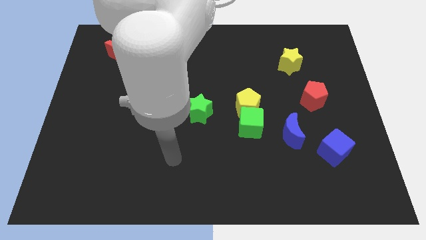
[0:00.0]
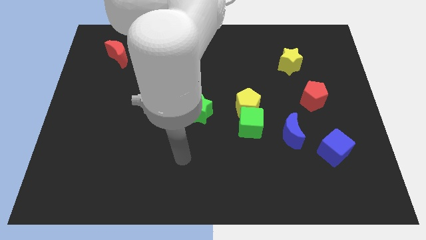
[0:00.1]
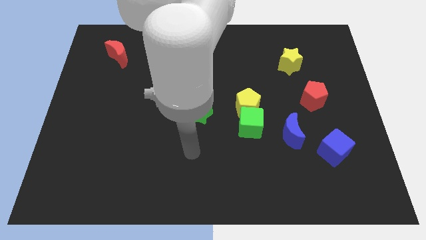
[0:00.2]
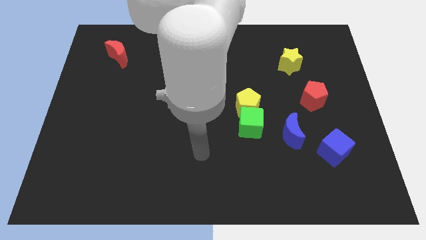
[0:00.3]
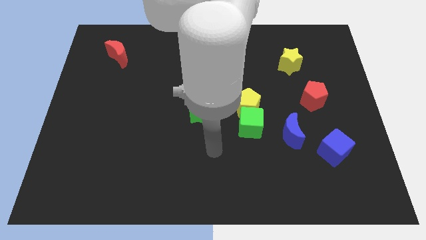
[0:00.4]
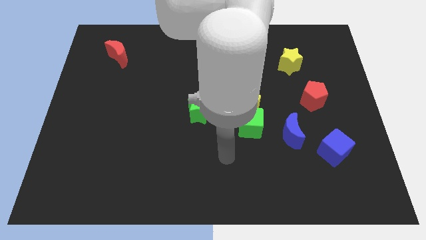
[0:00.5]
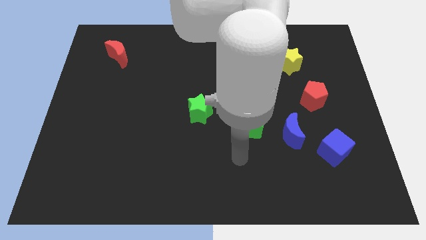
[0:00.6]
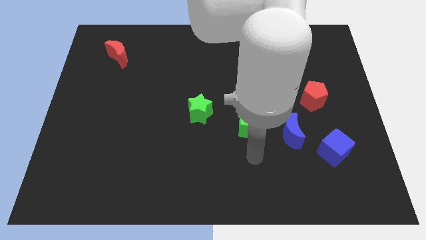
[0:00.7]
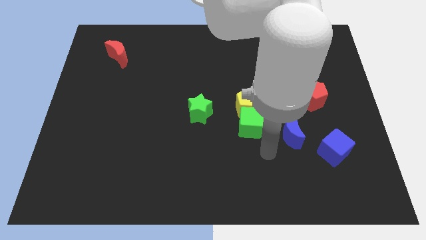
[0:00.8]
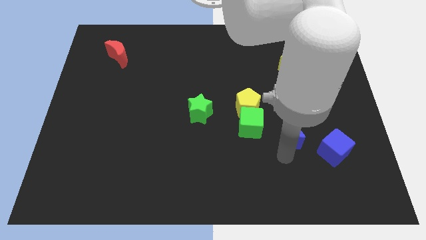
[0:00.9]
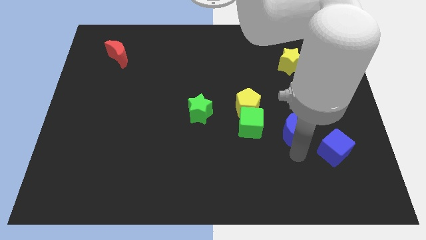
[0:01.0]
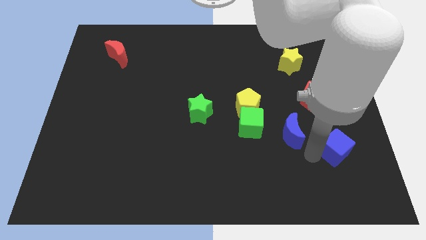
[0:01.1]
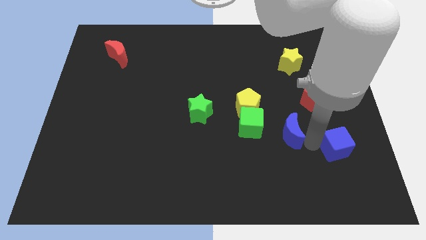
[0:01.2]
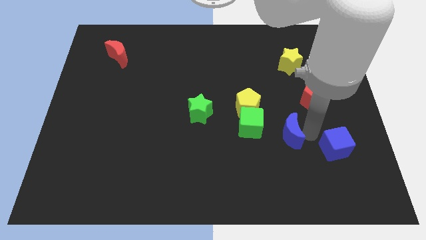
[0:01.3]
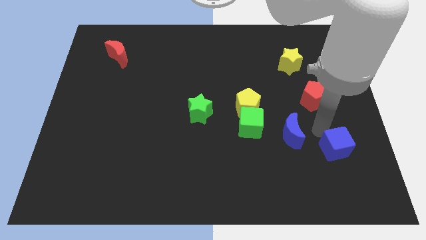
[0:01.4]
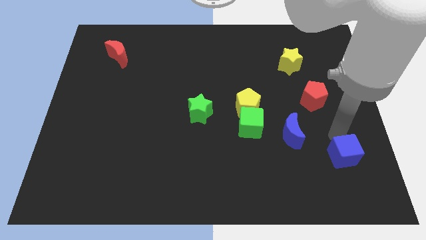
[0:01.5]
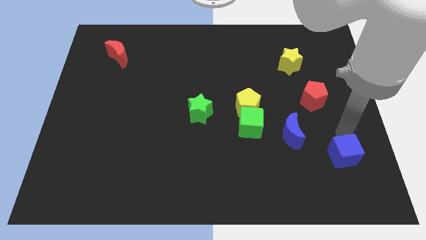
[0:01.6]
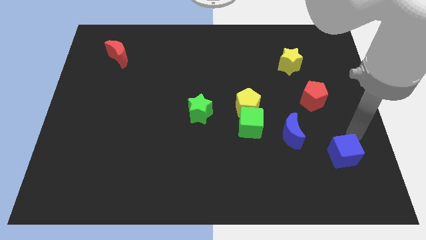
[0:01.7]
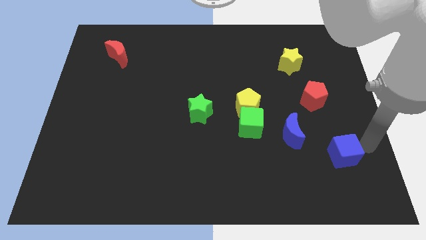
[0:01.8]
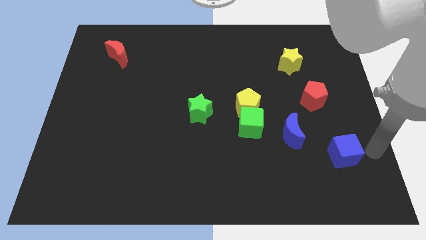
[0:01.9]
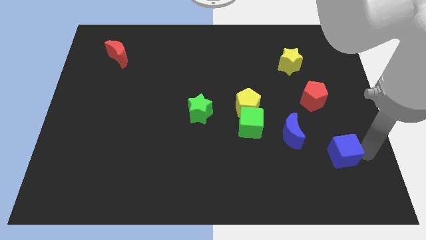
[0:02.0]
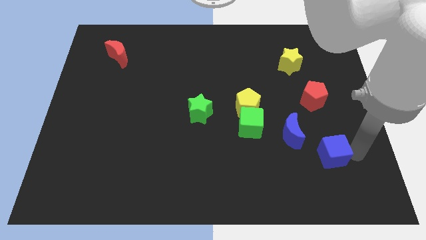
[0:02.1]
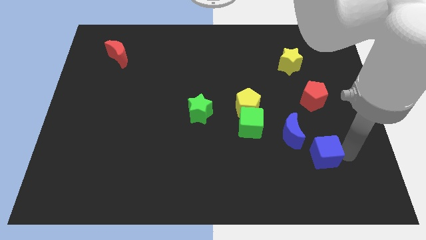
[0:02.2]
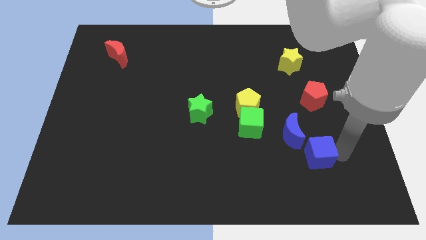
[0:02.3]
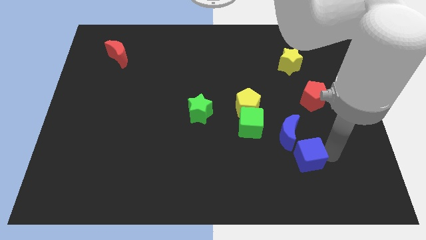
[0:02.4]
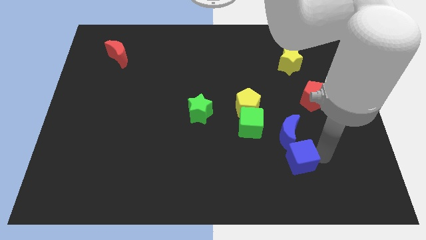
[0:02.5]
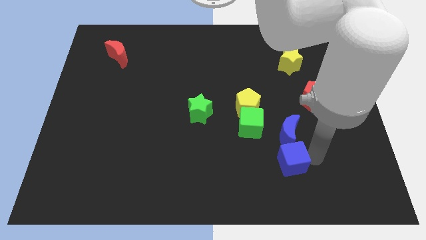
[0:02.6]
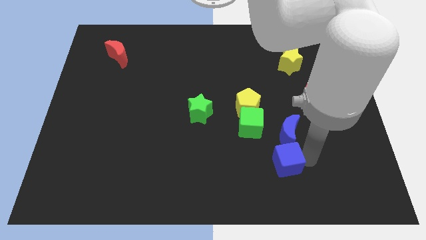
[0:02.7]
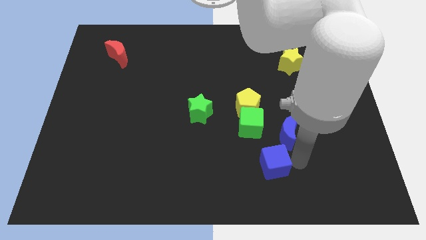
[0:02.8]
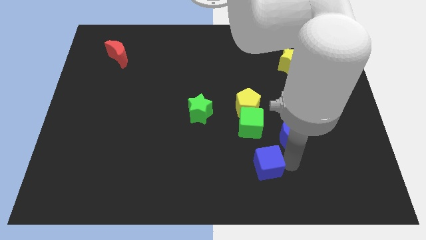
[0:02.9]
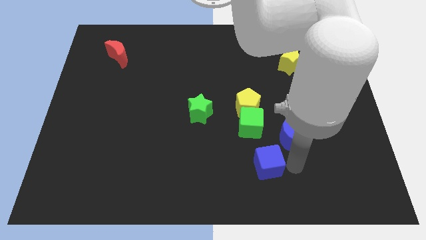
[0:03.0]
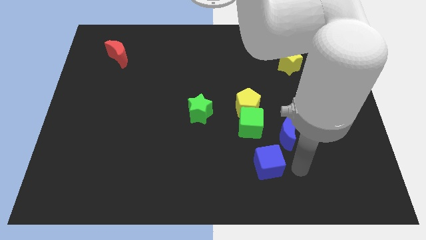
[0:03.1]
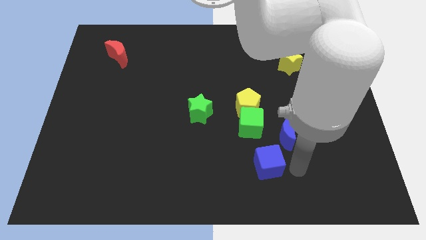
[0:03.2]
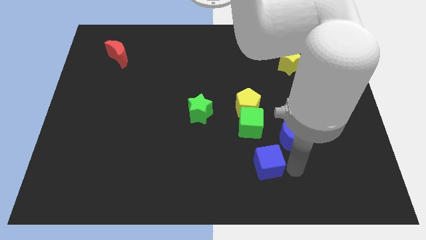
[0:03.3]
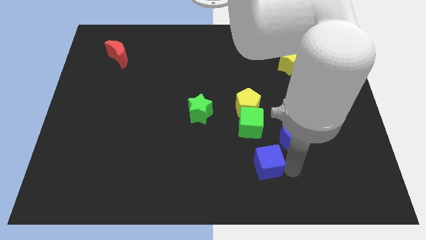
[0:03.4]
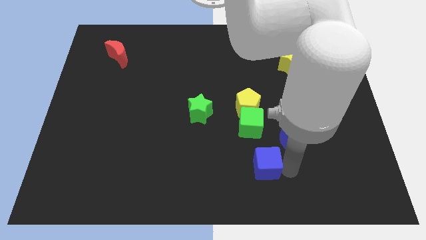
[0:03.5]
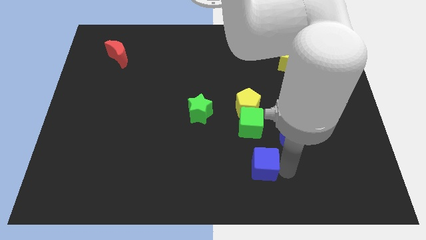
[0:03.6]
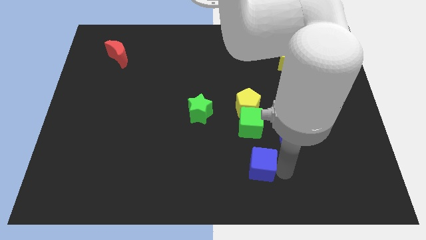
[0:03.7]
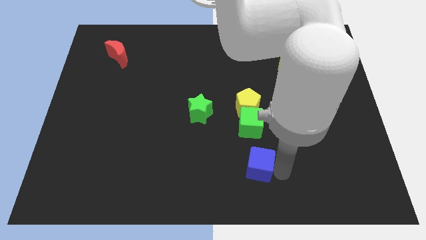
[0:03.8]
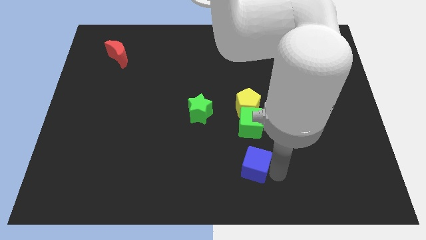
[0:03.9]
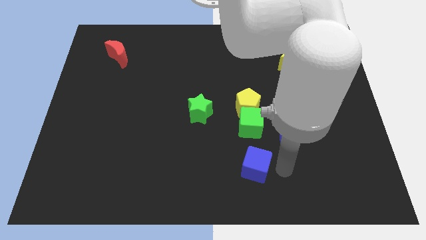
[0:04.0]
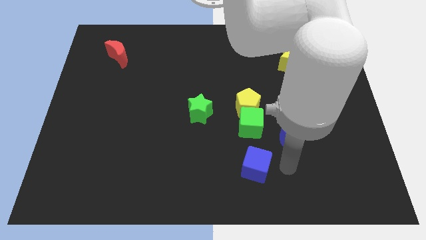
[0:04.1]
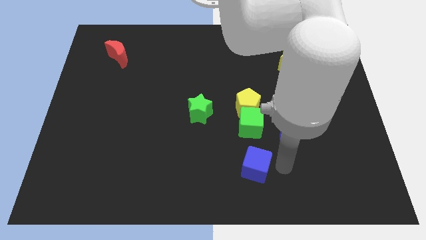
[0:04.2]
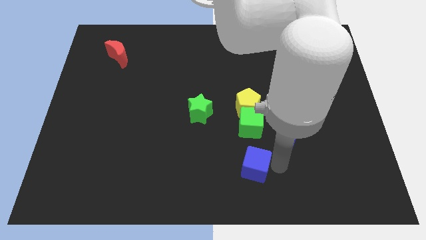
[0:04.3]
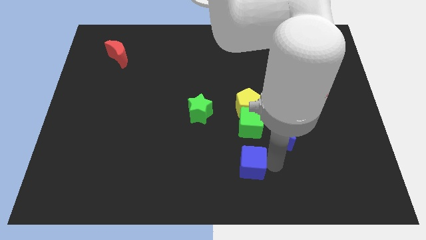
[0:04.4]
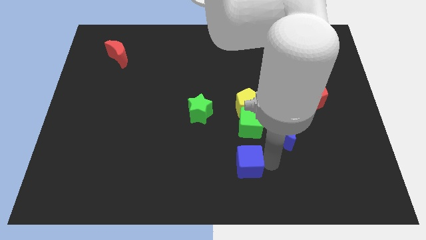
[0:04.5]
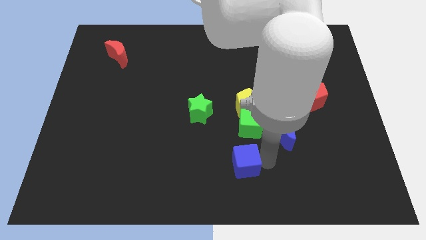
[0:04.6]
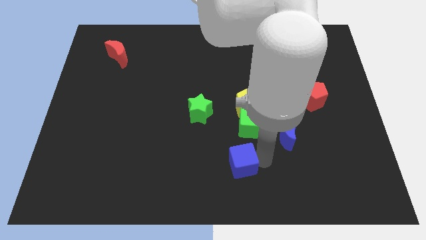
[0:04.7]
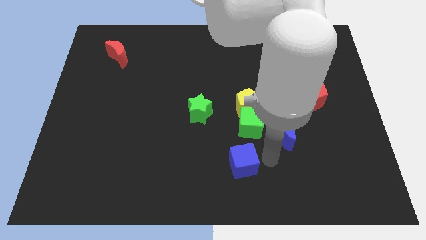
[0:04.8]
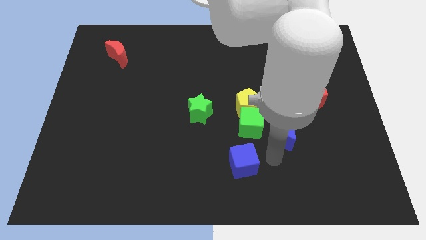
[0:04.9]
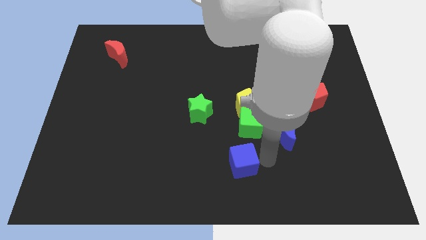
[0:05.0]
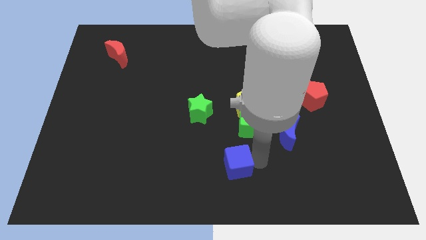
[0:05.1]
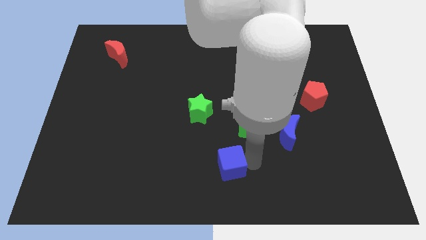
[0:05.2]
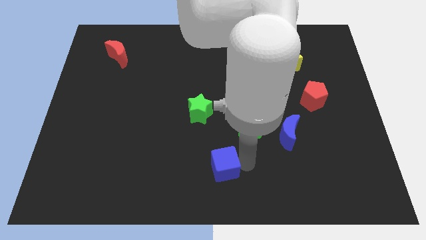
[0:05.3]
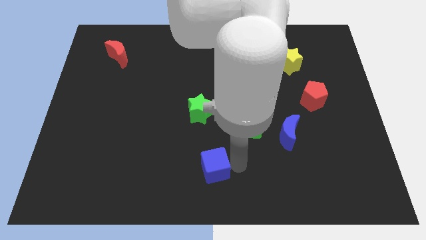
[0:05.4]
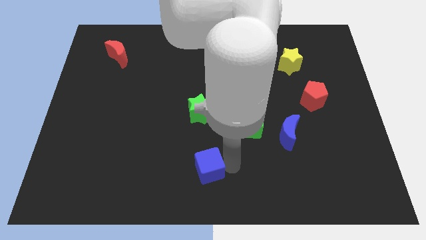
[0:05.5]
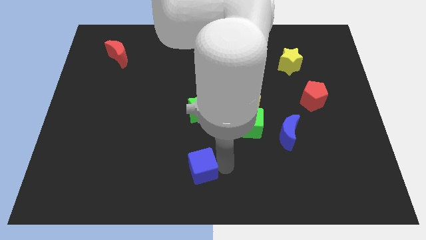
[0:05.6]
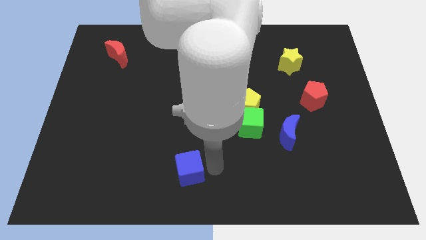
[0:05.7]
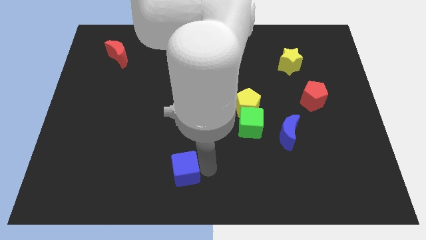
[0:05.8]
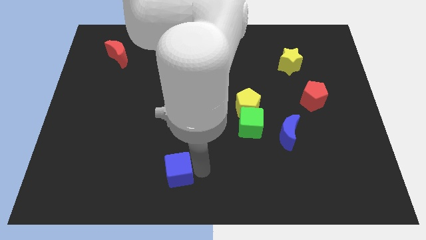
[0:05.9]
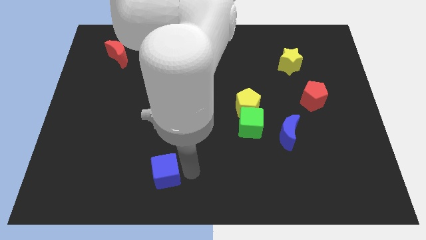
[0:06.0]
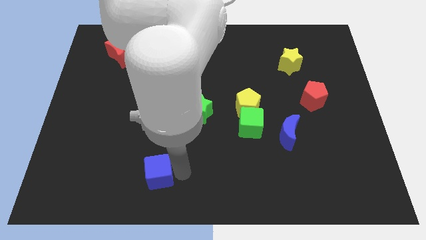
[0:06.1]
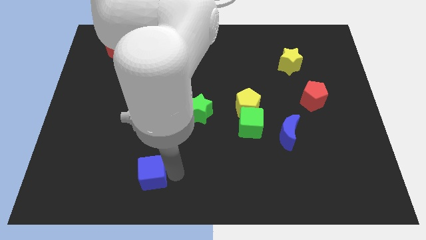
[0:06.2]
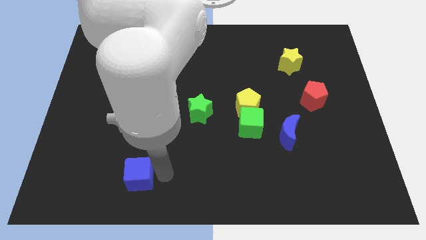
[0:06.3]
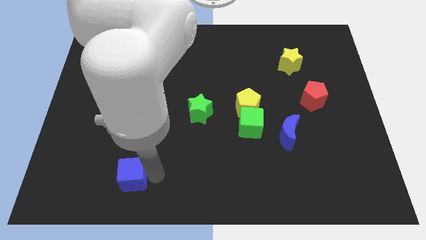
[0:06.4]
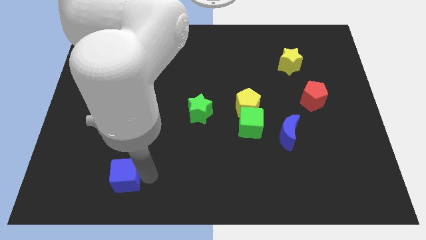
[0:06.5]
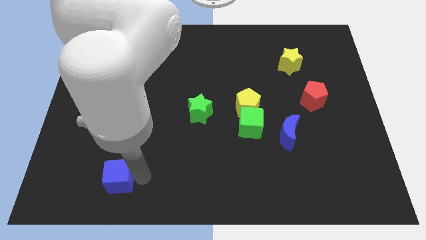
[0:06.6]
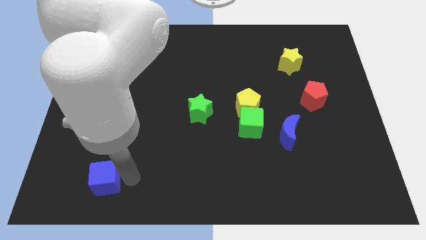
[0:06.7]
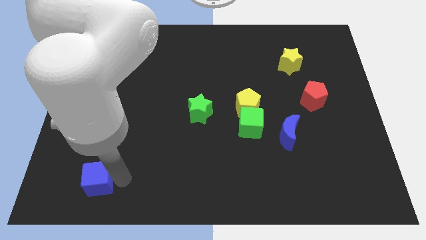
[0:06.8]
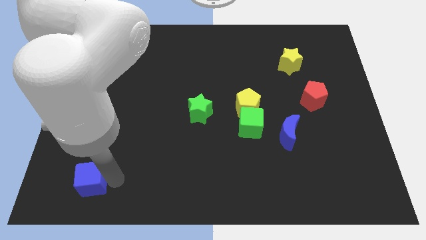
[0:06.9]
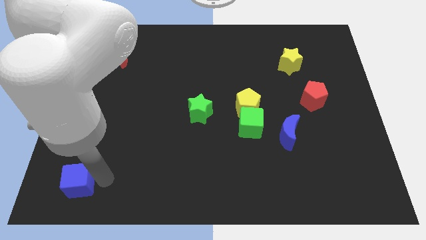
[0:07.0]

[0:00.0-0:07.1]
push the blue cube to the bottom left corner
